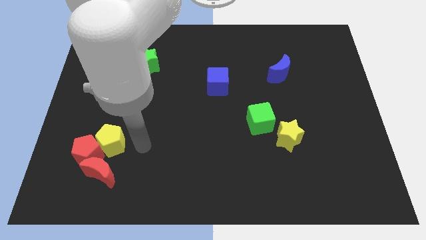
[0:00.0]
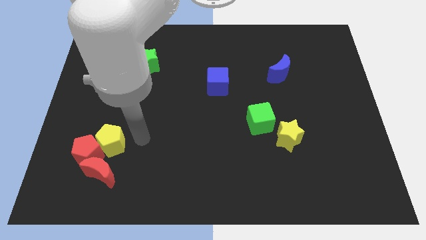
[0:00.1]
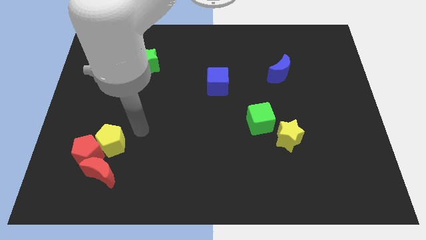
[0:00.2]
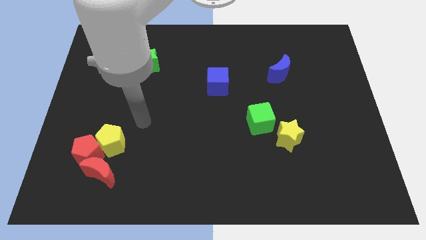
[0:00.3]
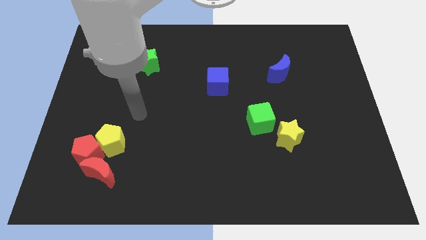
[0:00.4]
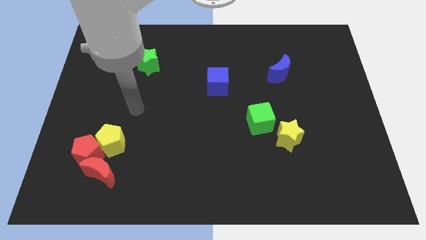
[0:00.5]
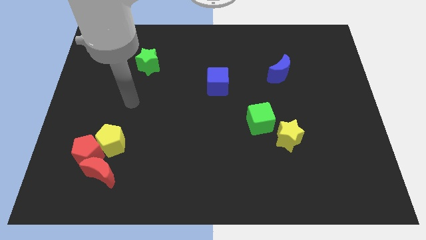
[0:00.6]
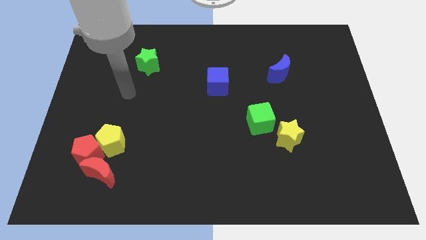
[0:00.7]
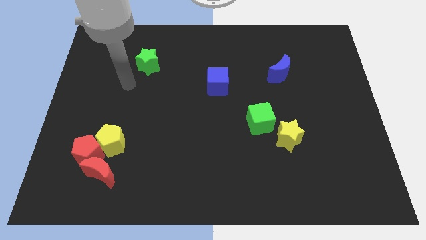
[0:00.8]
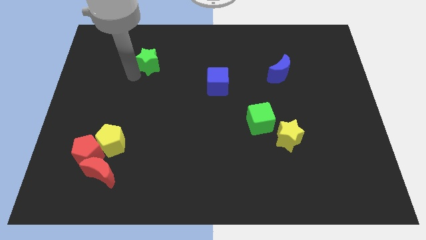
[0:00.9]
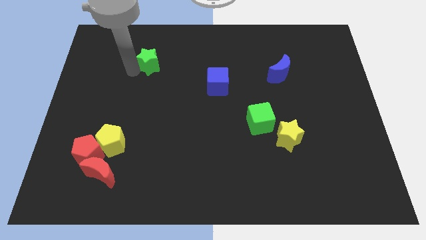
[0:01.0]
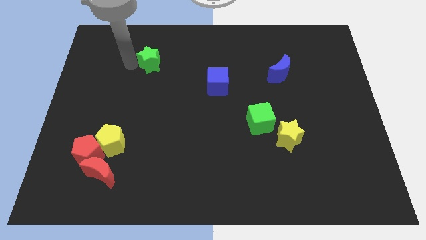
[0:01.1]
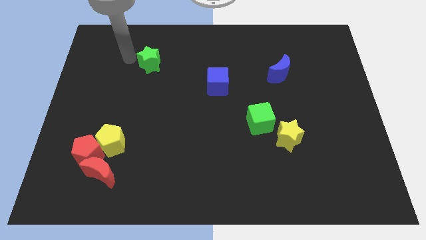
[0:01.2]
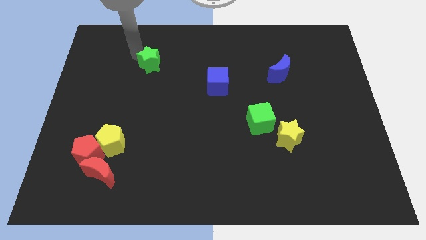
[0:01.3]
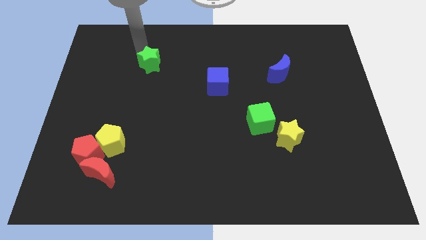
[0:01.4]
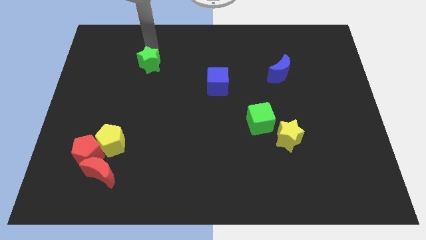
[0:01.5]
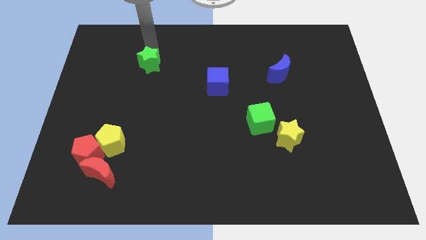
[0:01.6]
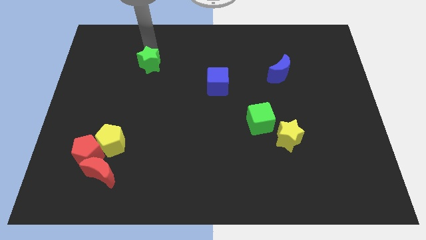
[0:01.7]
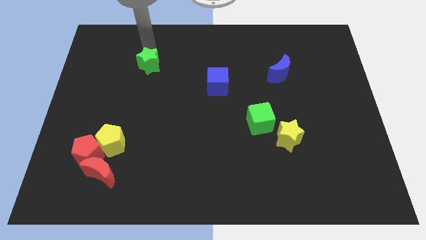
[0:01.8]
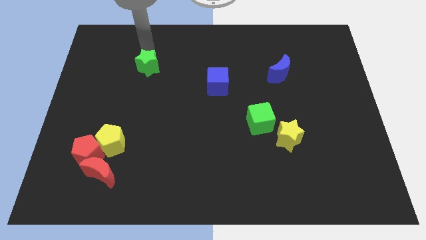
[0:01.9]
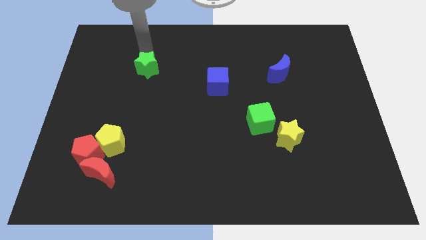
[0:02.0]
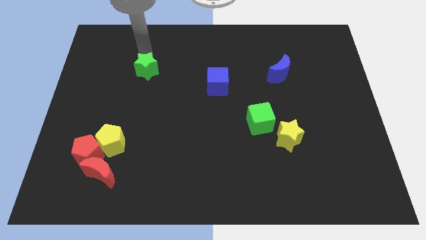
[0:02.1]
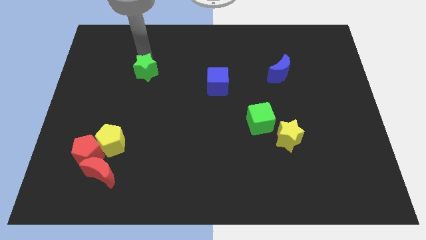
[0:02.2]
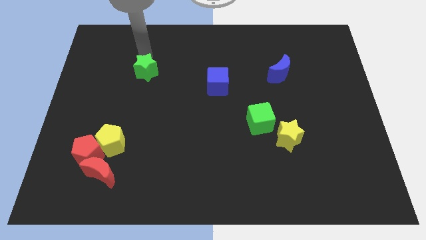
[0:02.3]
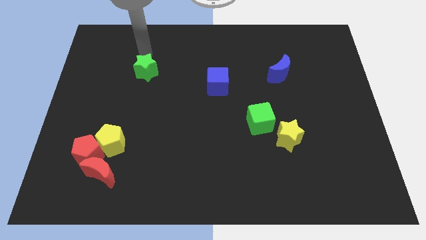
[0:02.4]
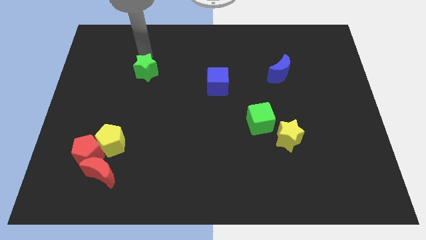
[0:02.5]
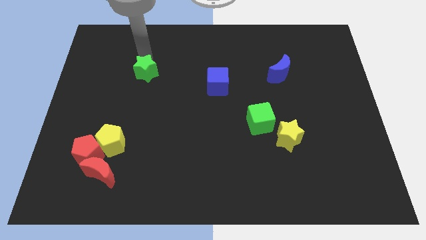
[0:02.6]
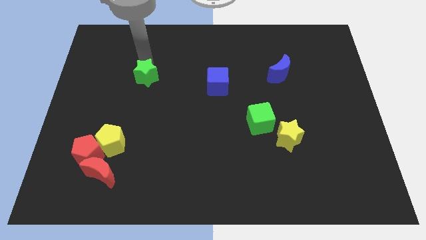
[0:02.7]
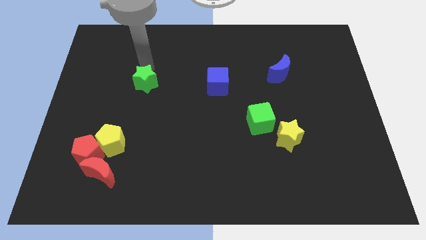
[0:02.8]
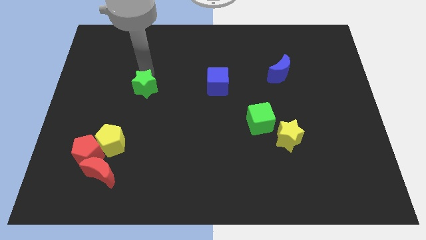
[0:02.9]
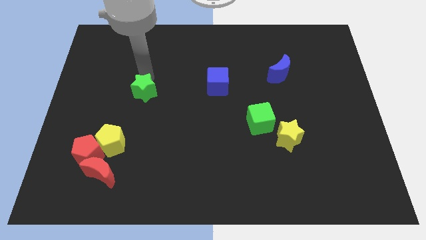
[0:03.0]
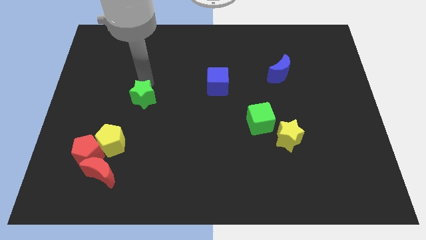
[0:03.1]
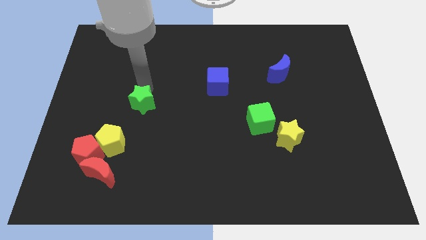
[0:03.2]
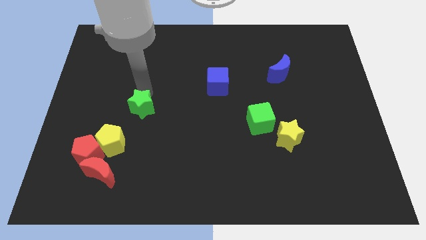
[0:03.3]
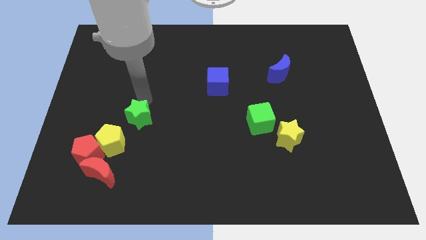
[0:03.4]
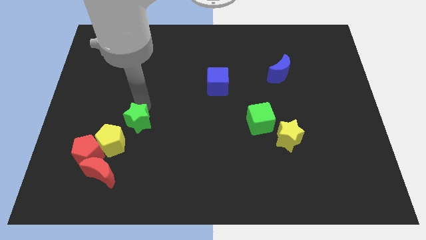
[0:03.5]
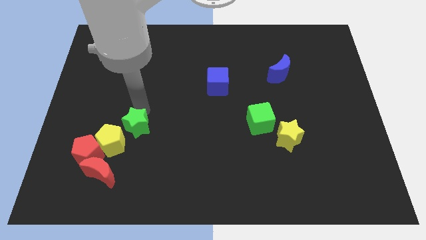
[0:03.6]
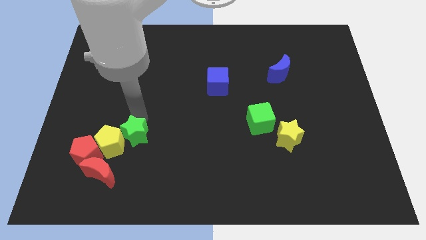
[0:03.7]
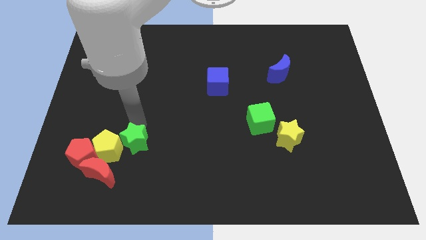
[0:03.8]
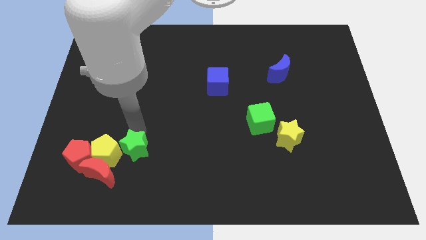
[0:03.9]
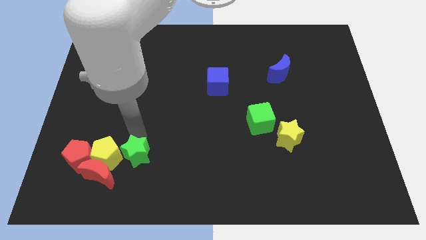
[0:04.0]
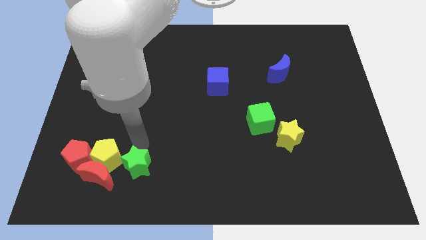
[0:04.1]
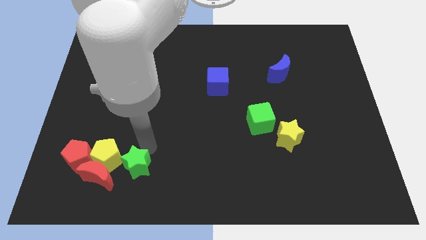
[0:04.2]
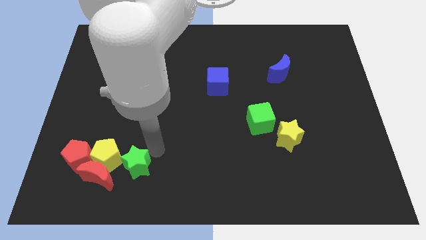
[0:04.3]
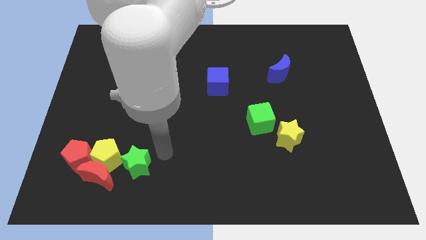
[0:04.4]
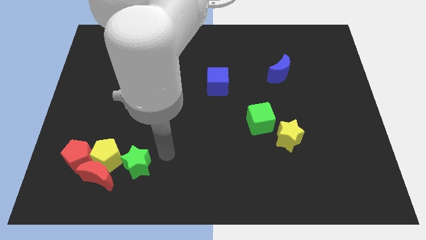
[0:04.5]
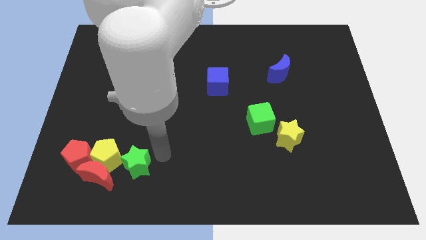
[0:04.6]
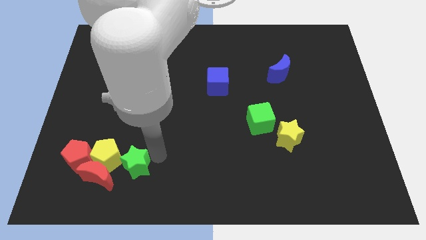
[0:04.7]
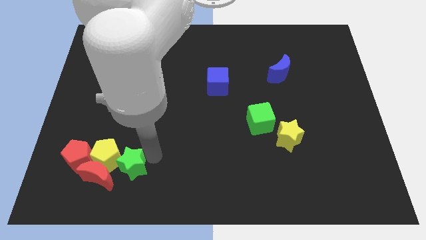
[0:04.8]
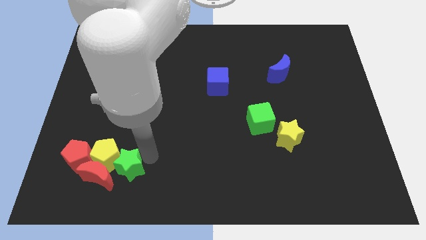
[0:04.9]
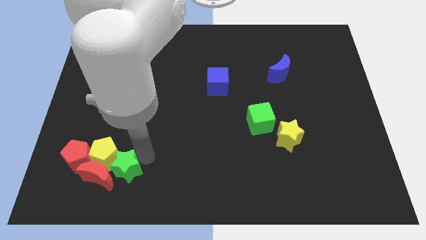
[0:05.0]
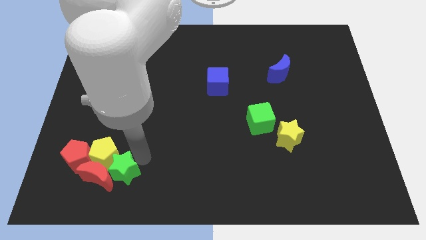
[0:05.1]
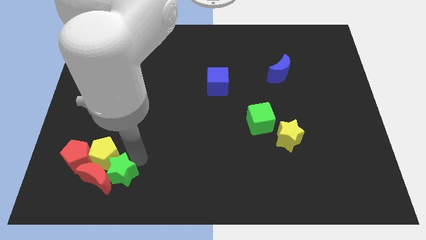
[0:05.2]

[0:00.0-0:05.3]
slide the green star to the bottom right side of the red pentagon

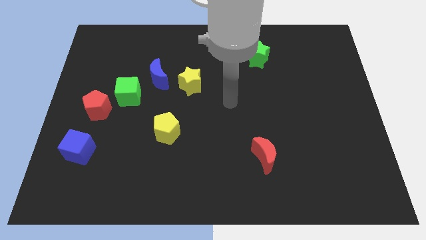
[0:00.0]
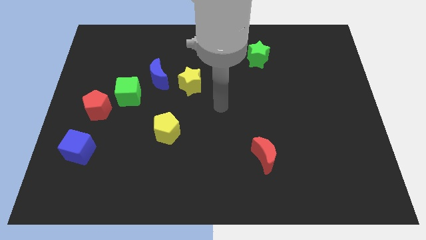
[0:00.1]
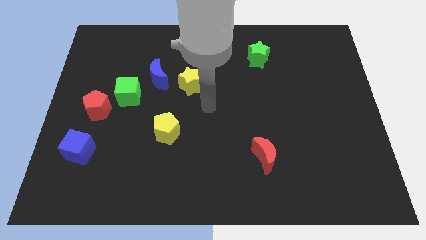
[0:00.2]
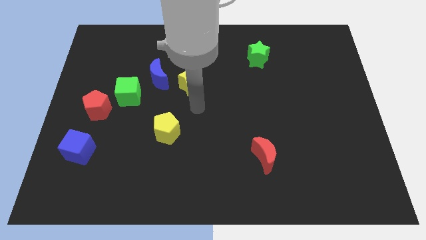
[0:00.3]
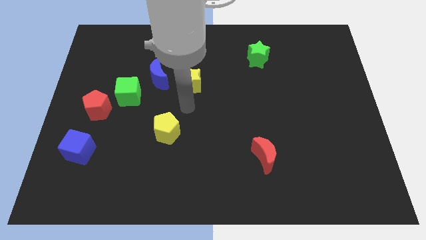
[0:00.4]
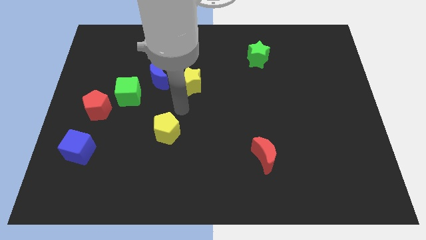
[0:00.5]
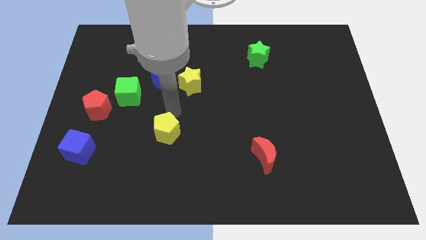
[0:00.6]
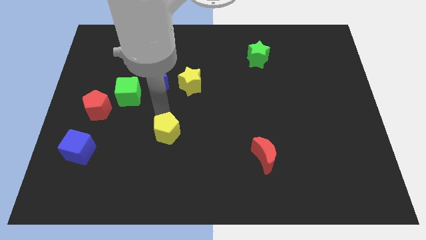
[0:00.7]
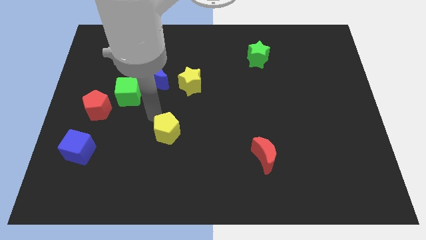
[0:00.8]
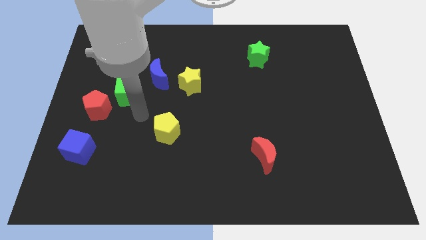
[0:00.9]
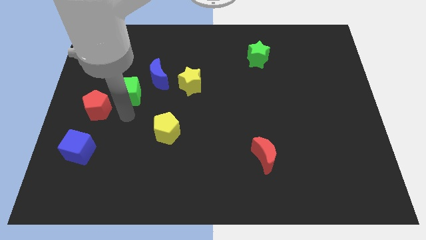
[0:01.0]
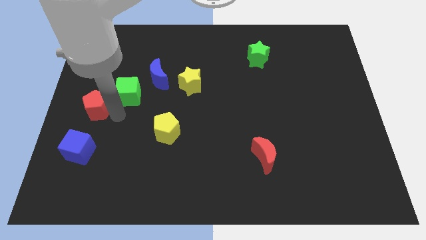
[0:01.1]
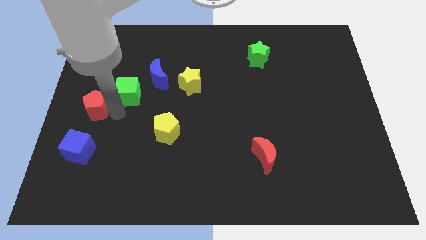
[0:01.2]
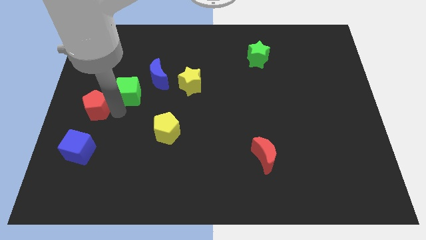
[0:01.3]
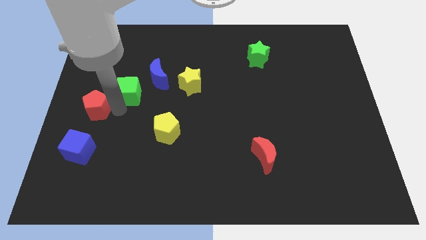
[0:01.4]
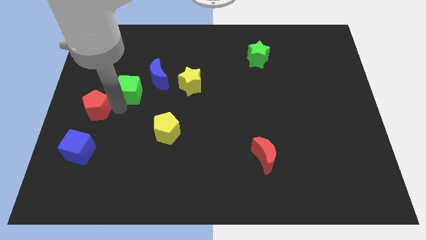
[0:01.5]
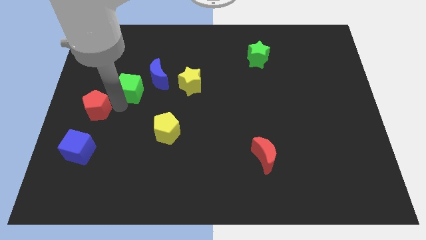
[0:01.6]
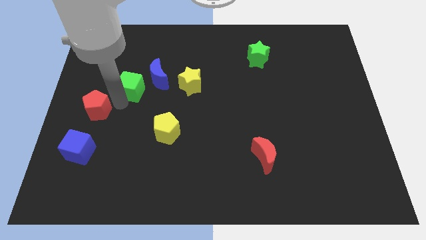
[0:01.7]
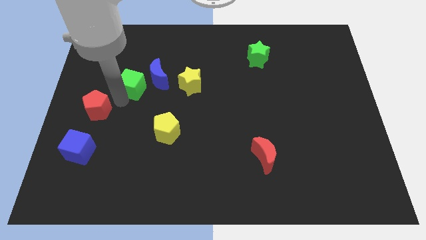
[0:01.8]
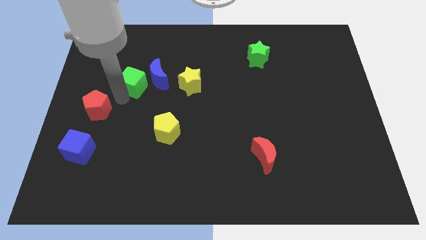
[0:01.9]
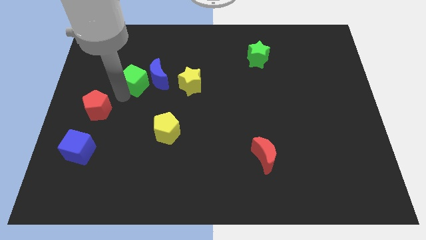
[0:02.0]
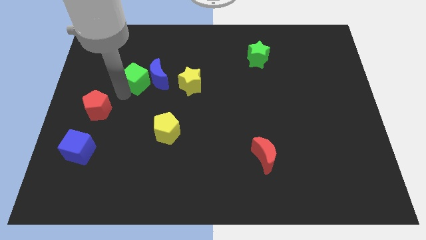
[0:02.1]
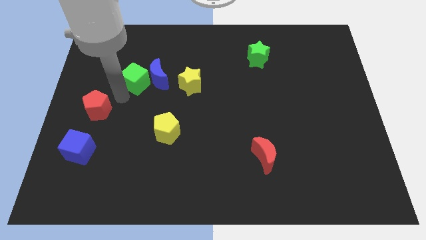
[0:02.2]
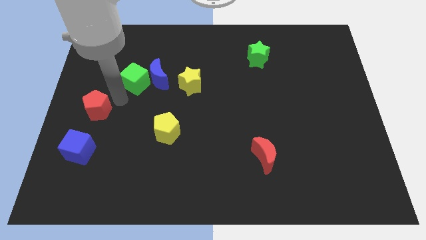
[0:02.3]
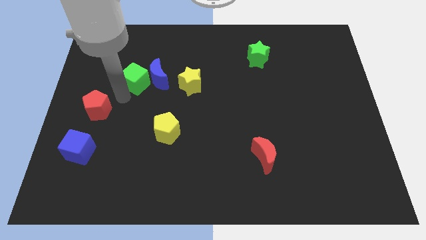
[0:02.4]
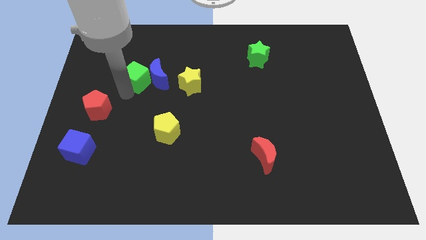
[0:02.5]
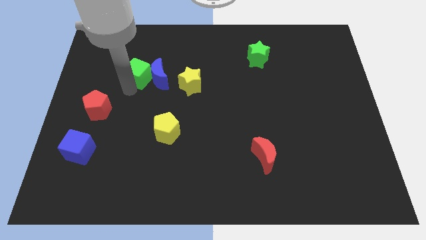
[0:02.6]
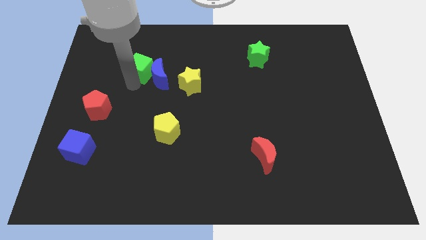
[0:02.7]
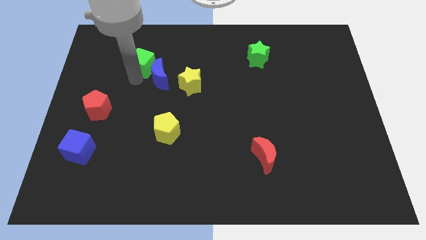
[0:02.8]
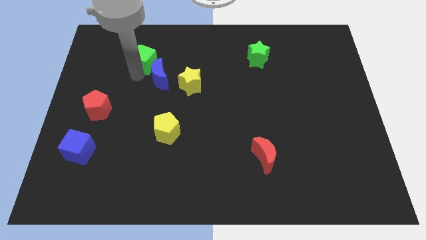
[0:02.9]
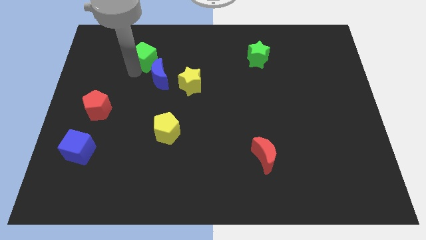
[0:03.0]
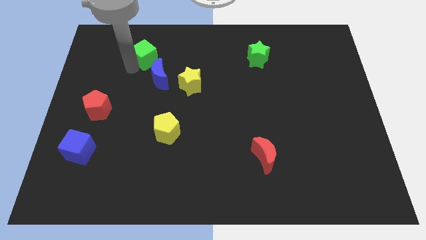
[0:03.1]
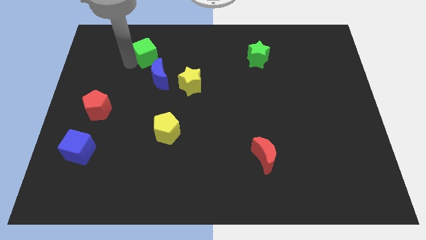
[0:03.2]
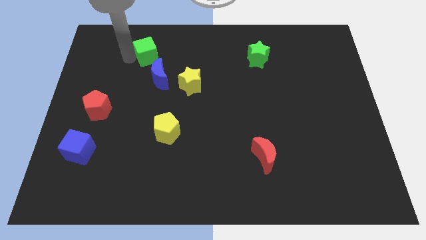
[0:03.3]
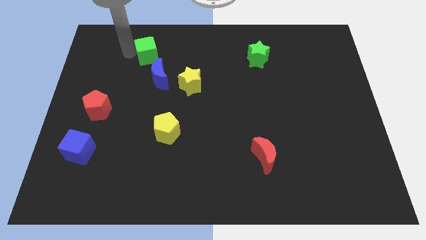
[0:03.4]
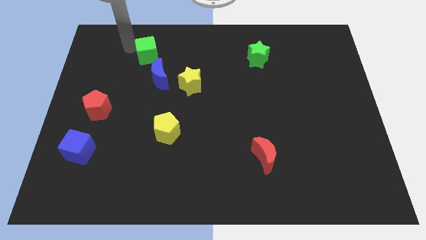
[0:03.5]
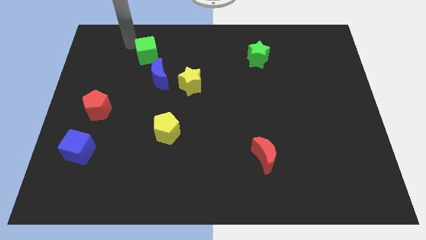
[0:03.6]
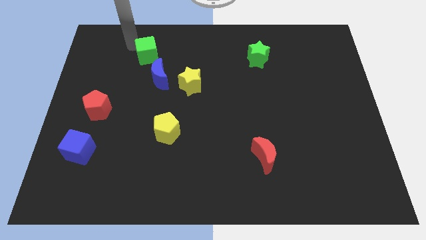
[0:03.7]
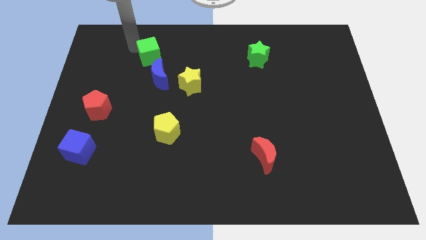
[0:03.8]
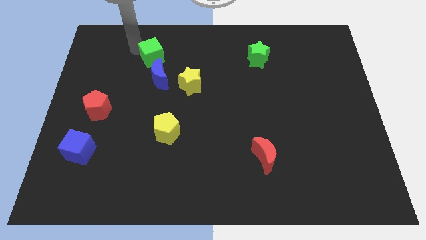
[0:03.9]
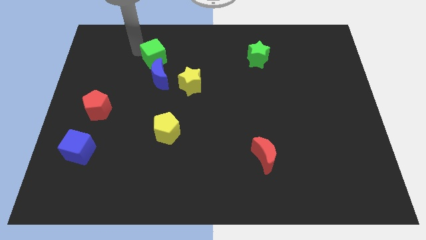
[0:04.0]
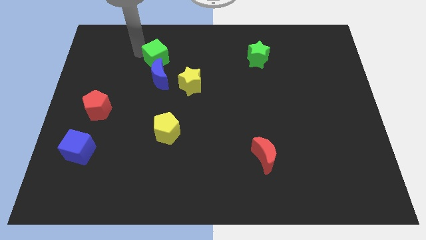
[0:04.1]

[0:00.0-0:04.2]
push the green cube diagonally up and to the left of the yellow star
